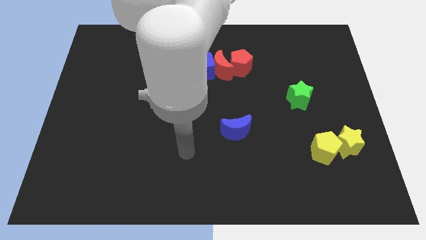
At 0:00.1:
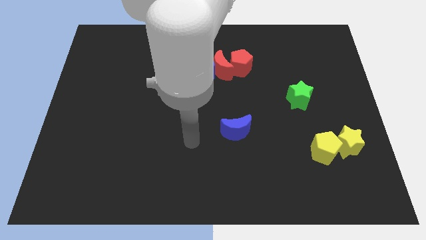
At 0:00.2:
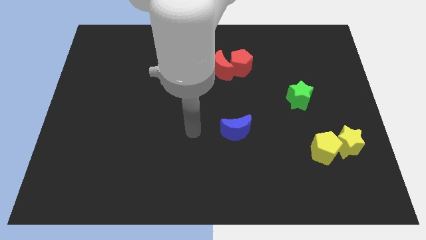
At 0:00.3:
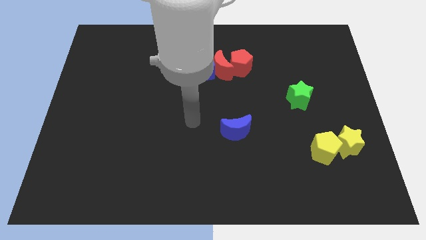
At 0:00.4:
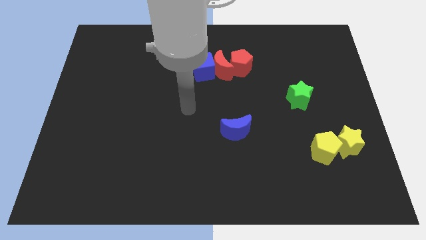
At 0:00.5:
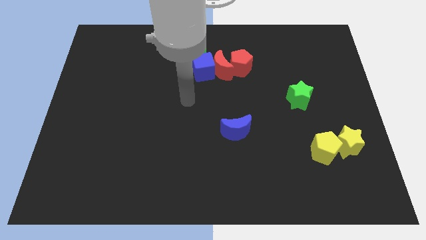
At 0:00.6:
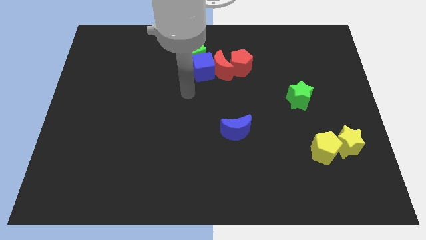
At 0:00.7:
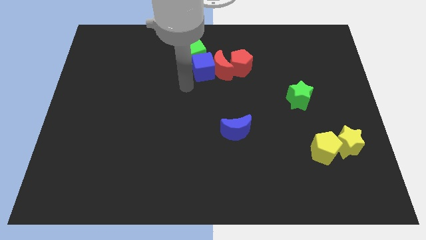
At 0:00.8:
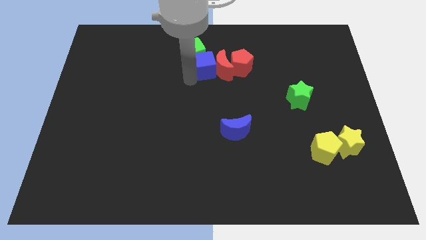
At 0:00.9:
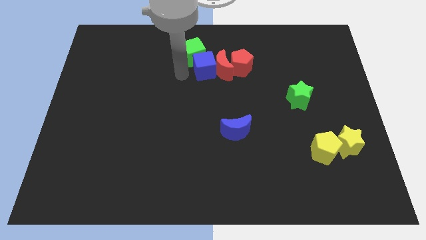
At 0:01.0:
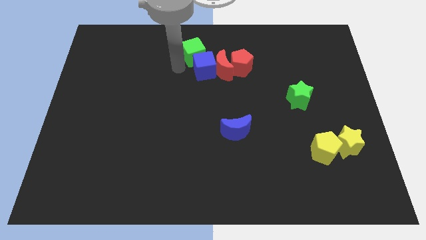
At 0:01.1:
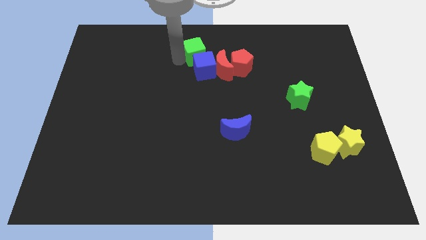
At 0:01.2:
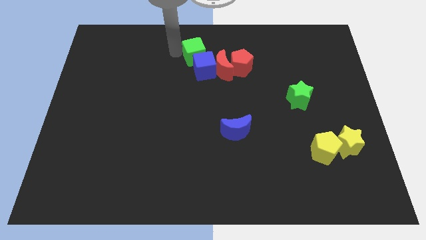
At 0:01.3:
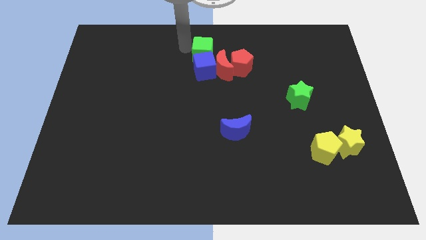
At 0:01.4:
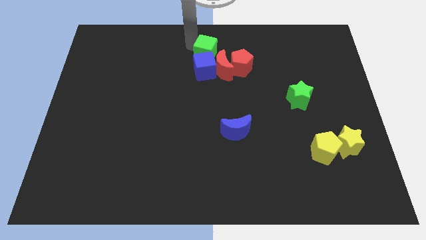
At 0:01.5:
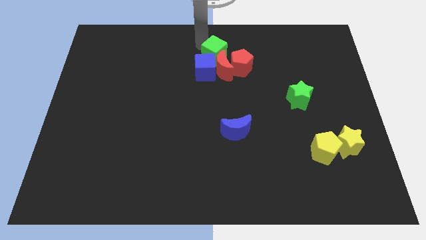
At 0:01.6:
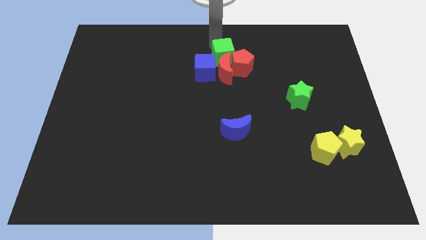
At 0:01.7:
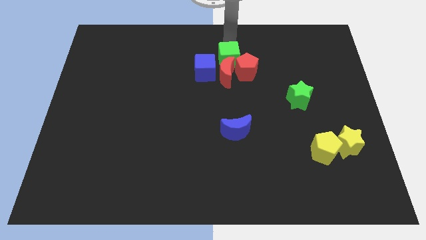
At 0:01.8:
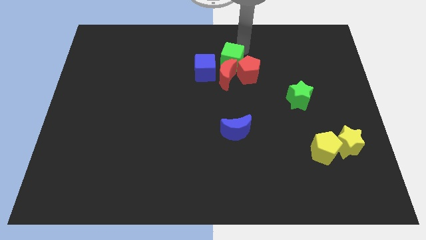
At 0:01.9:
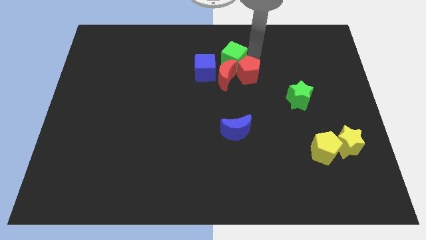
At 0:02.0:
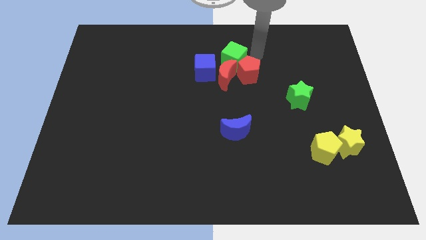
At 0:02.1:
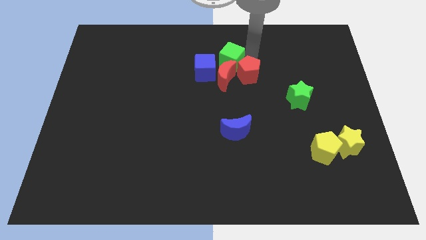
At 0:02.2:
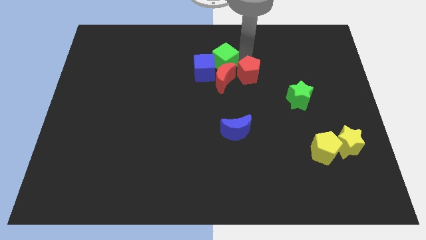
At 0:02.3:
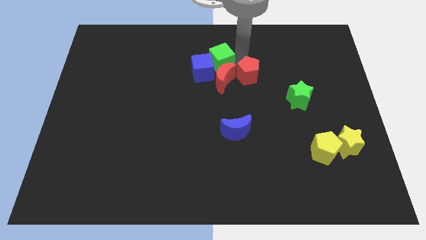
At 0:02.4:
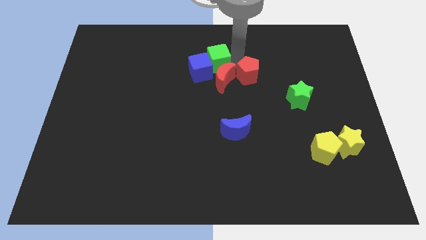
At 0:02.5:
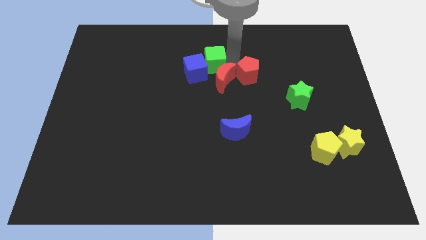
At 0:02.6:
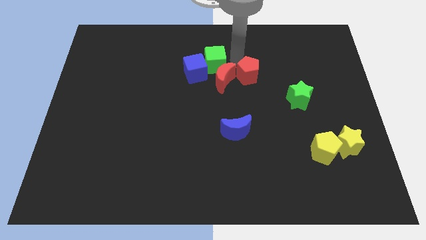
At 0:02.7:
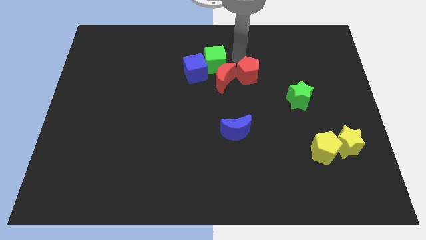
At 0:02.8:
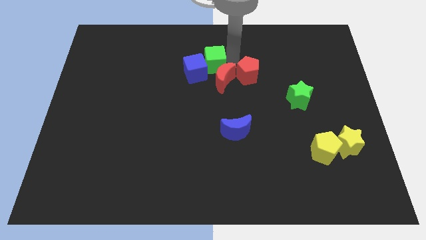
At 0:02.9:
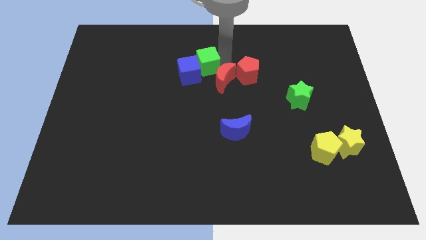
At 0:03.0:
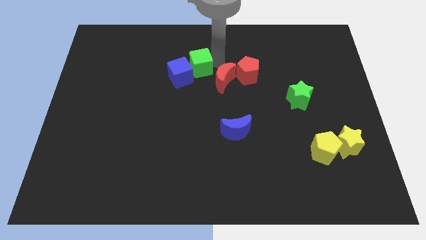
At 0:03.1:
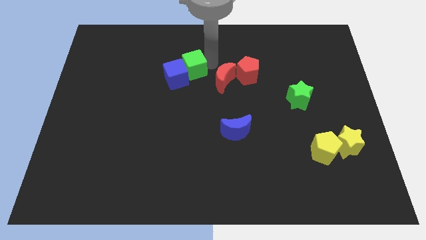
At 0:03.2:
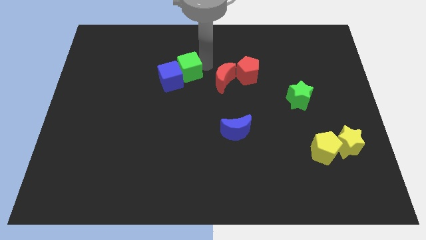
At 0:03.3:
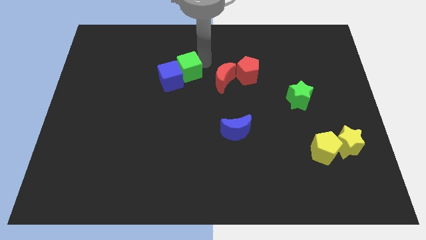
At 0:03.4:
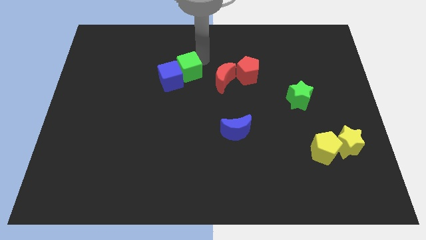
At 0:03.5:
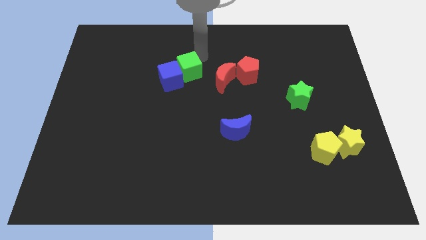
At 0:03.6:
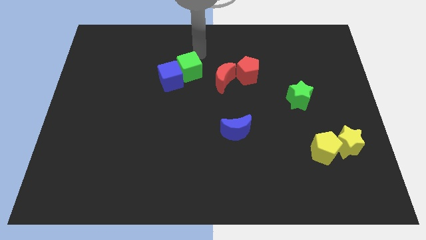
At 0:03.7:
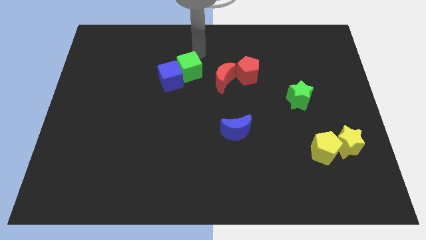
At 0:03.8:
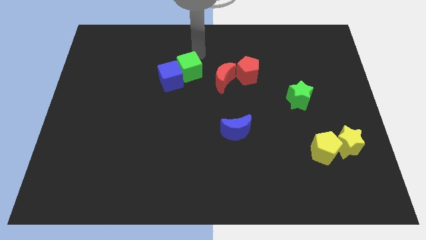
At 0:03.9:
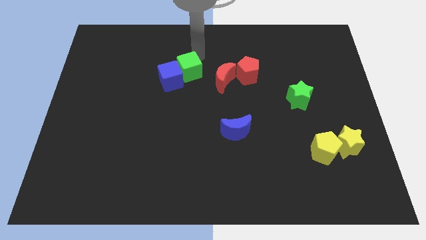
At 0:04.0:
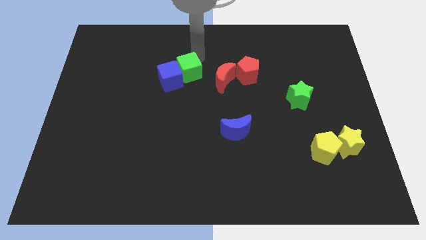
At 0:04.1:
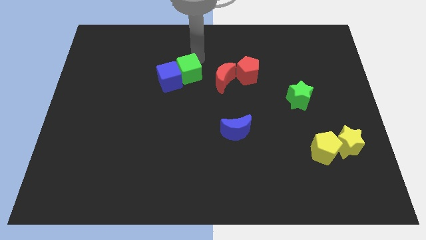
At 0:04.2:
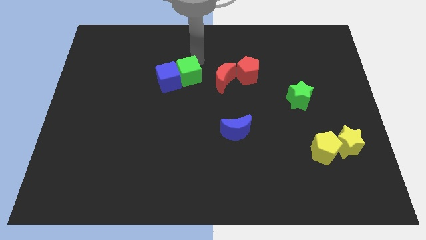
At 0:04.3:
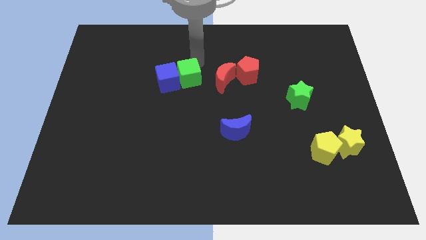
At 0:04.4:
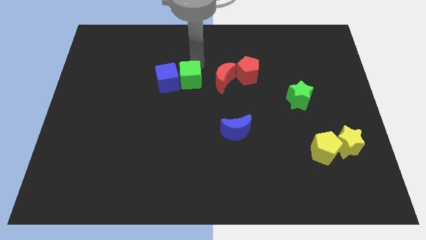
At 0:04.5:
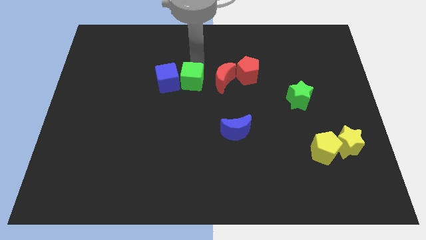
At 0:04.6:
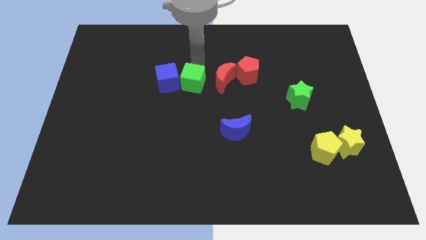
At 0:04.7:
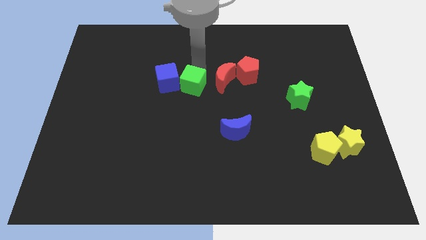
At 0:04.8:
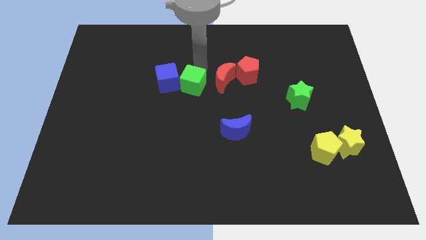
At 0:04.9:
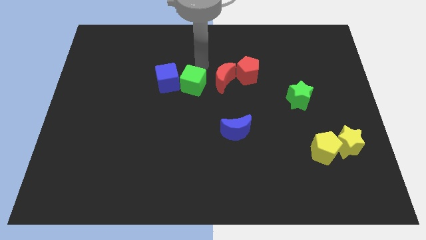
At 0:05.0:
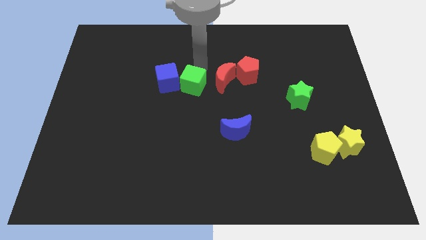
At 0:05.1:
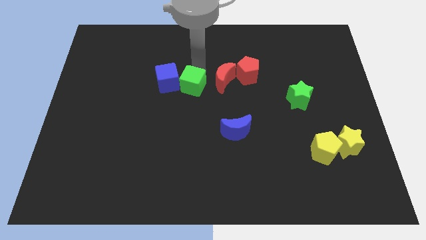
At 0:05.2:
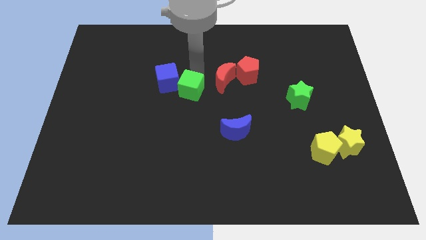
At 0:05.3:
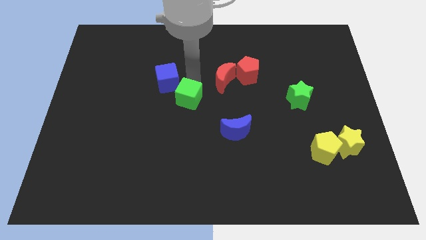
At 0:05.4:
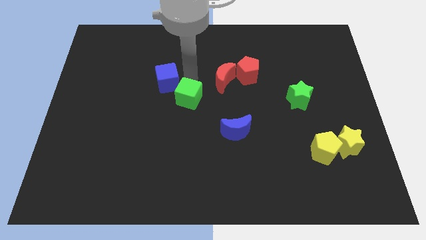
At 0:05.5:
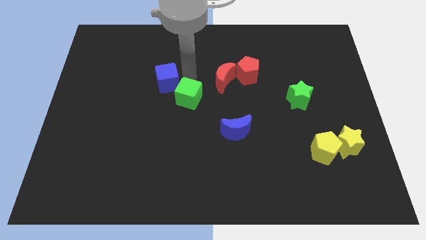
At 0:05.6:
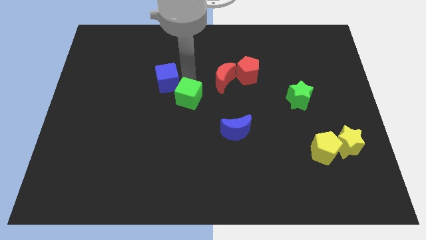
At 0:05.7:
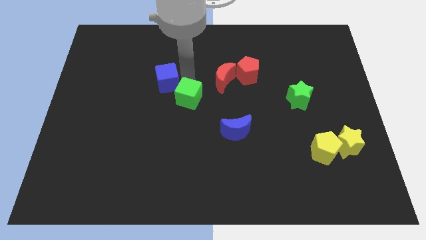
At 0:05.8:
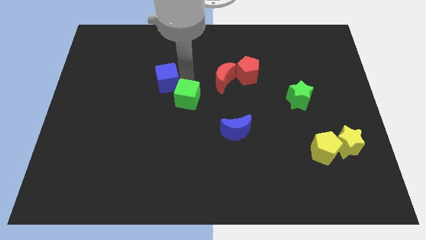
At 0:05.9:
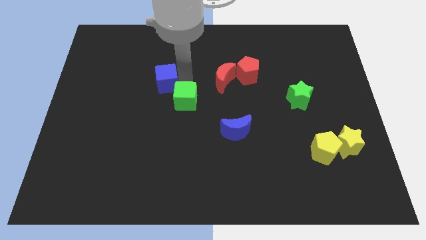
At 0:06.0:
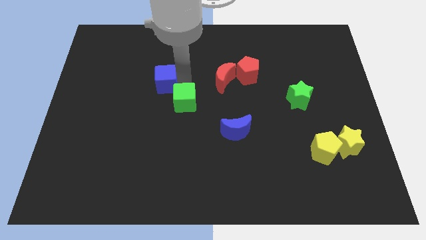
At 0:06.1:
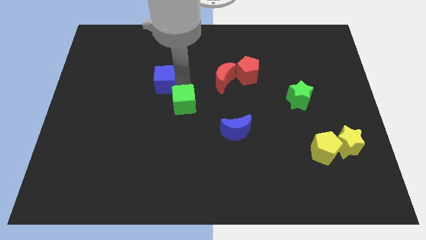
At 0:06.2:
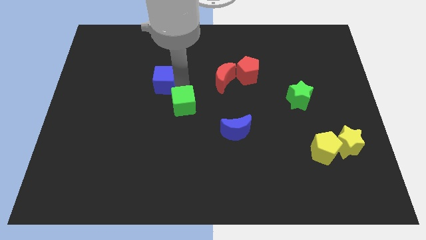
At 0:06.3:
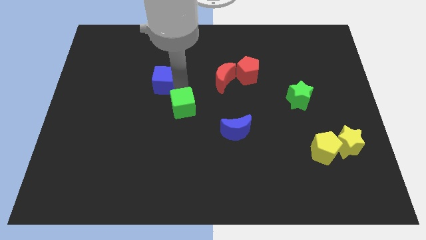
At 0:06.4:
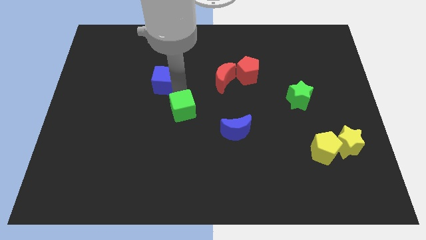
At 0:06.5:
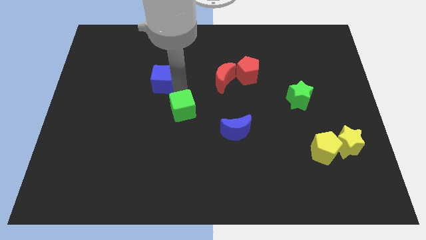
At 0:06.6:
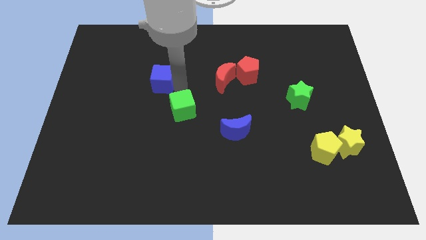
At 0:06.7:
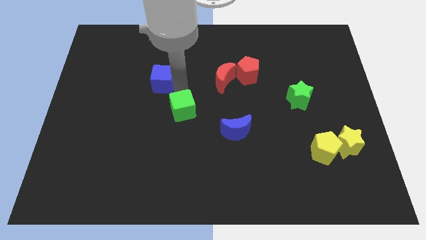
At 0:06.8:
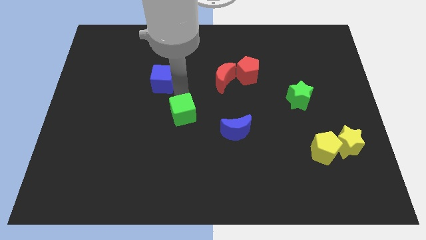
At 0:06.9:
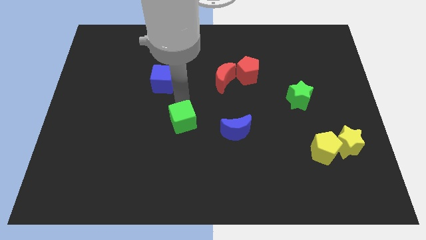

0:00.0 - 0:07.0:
move the green cube downwards

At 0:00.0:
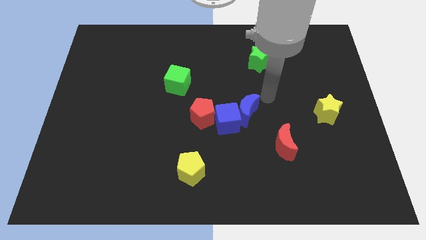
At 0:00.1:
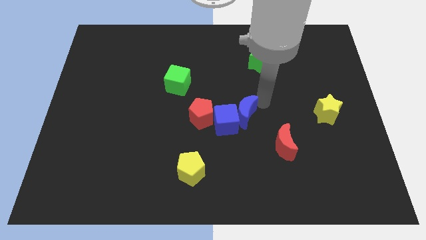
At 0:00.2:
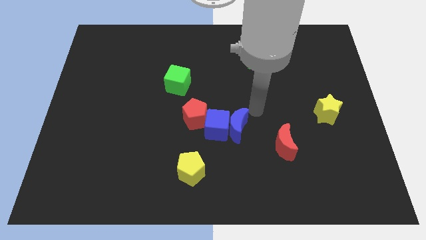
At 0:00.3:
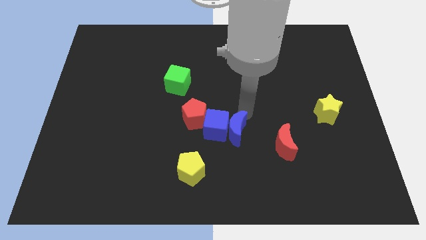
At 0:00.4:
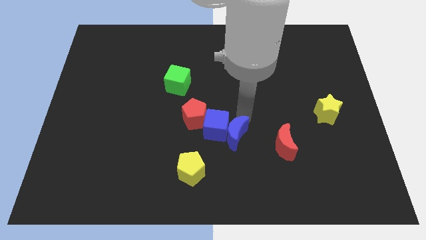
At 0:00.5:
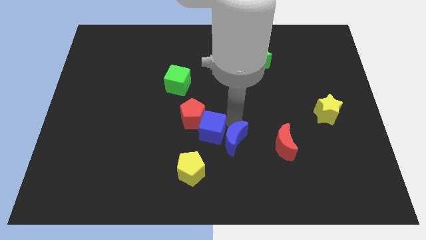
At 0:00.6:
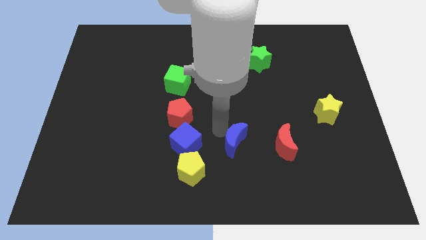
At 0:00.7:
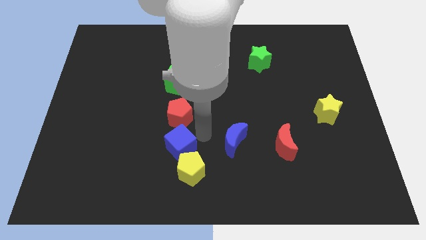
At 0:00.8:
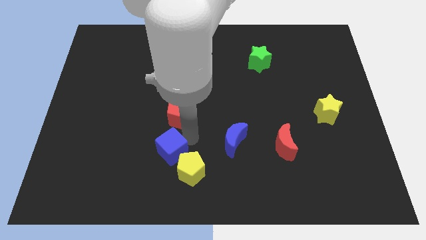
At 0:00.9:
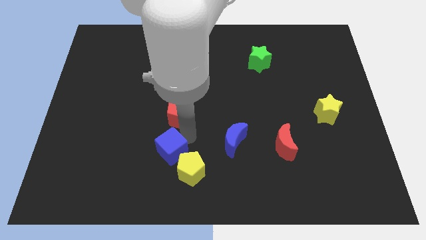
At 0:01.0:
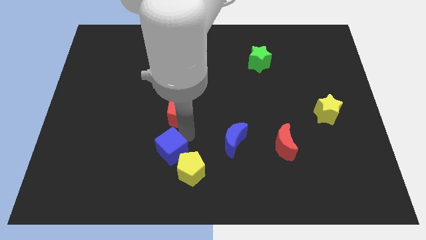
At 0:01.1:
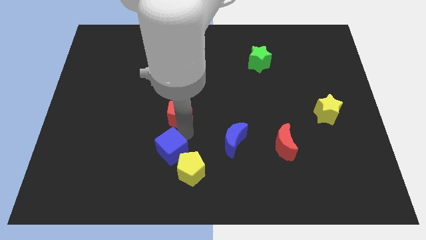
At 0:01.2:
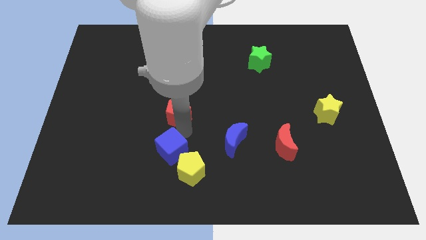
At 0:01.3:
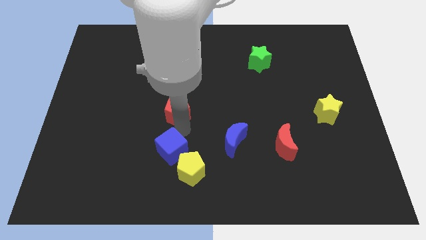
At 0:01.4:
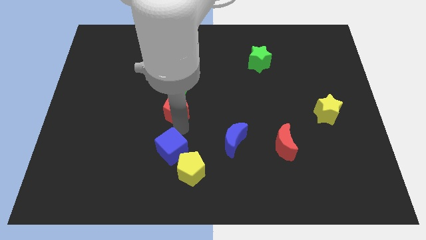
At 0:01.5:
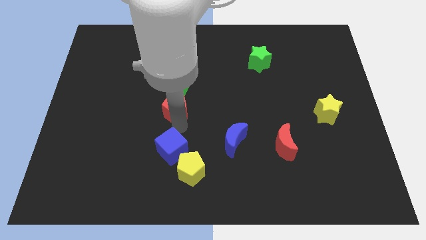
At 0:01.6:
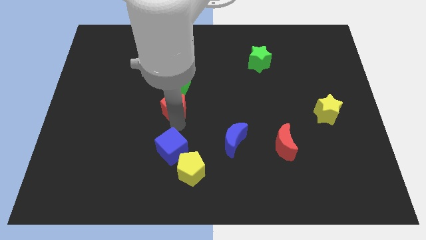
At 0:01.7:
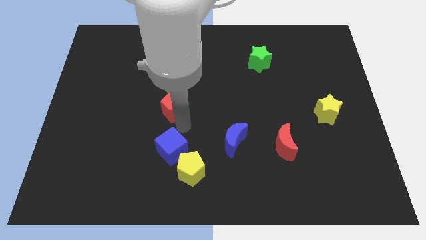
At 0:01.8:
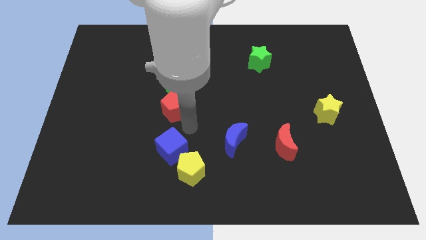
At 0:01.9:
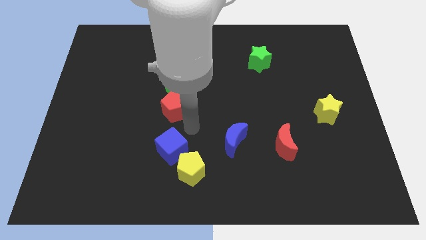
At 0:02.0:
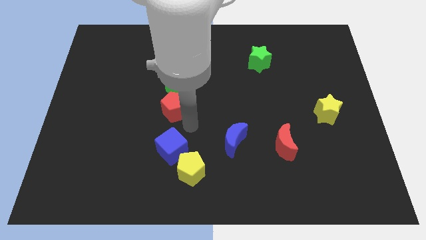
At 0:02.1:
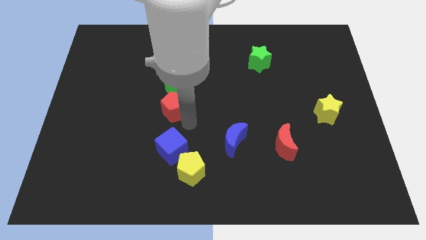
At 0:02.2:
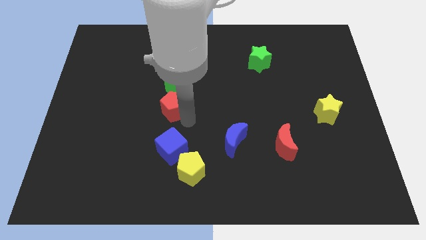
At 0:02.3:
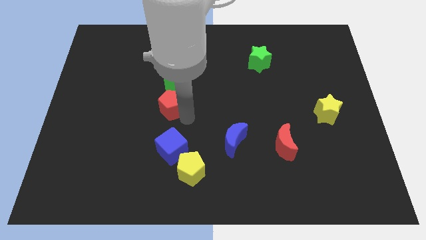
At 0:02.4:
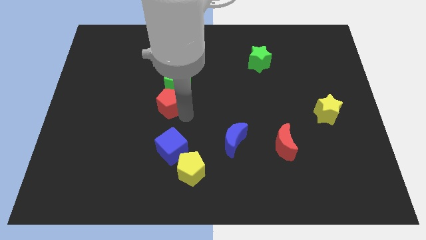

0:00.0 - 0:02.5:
slightly push the red pentagon upwards and left
